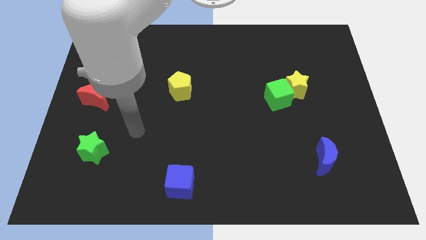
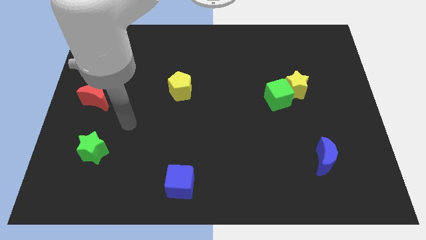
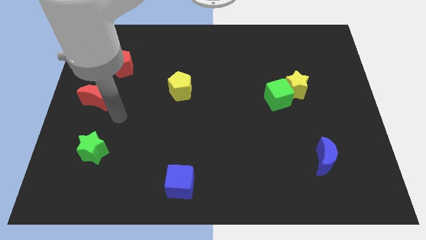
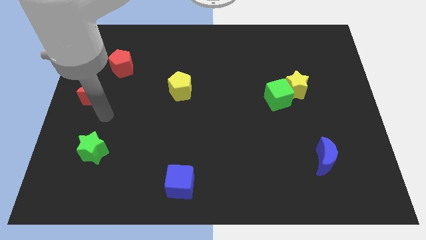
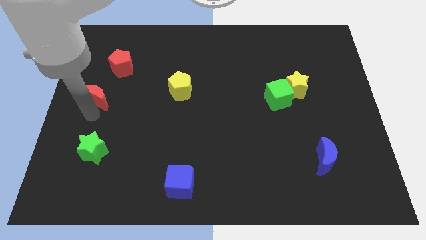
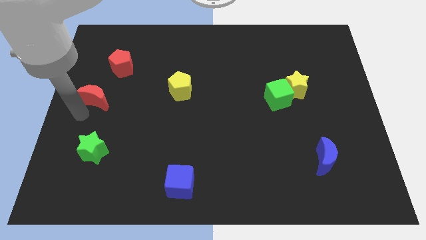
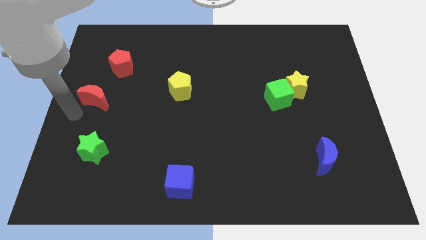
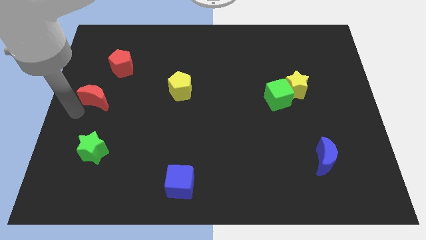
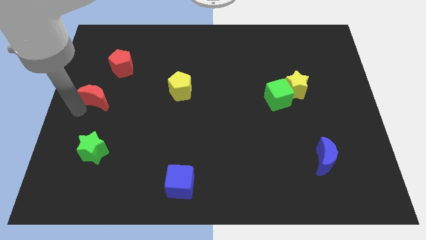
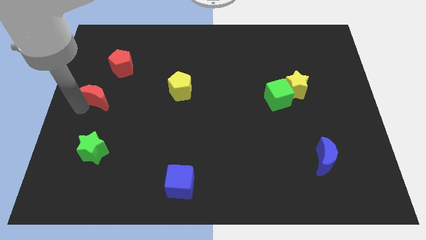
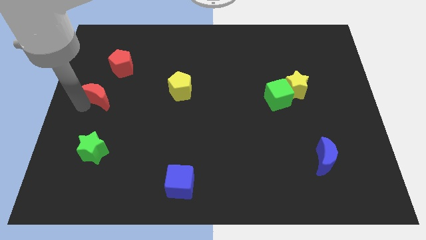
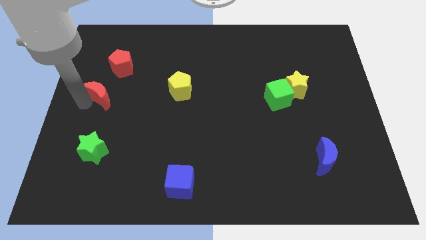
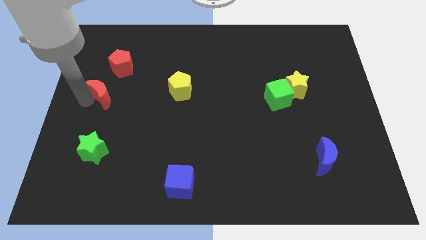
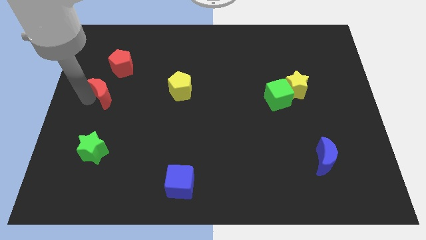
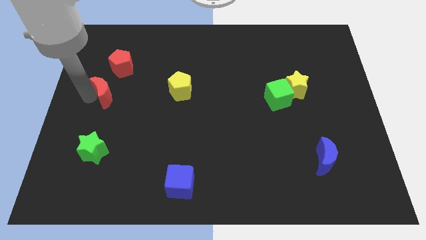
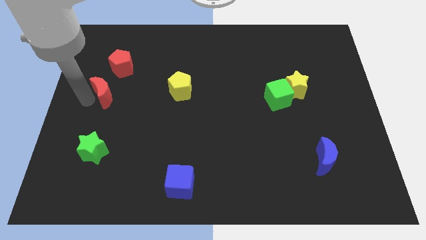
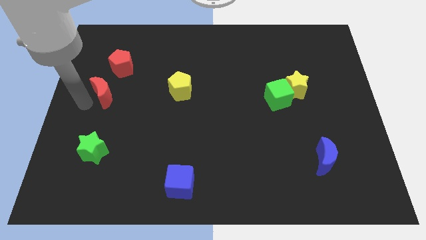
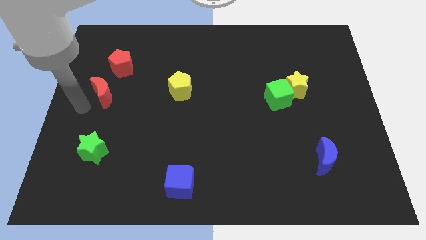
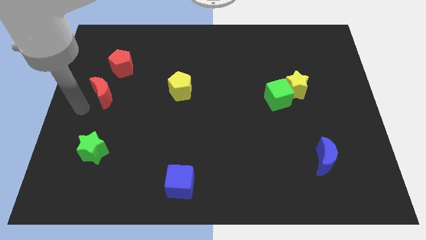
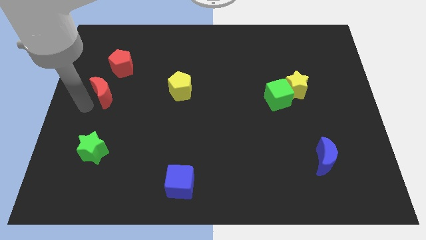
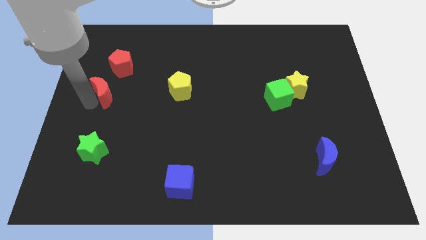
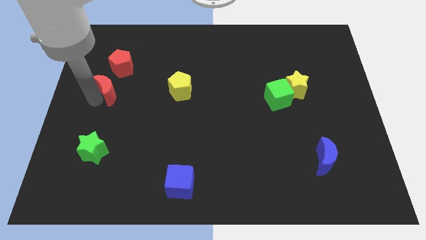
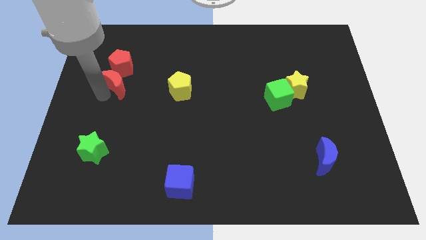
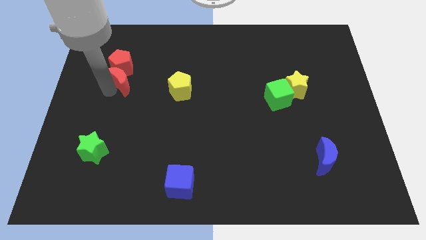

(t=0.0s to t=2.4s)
slightly slide the red moon upwards and right

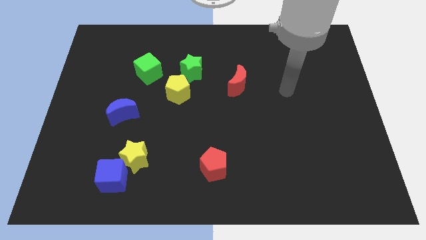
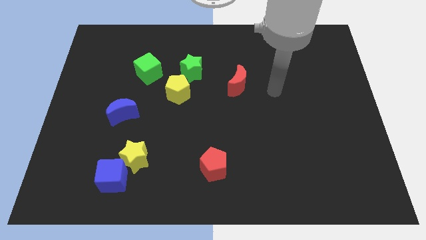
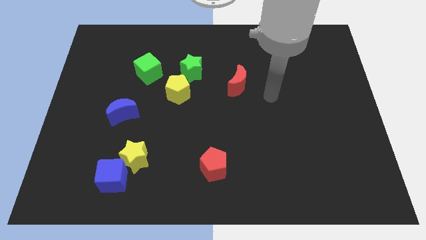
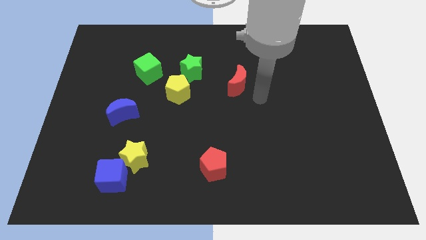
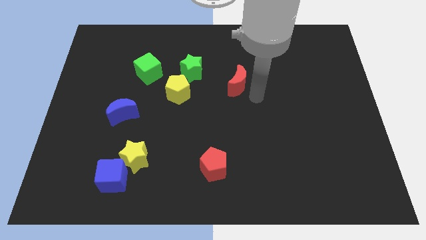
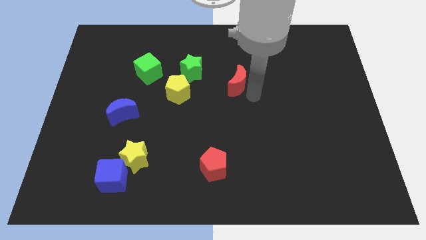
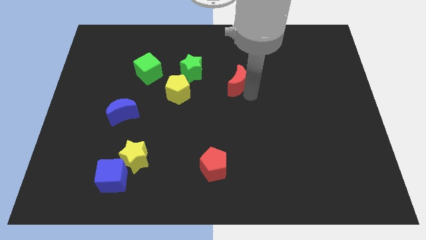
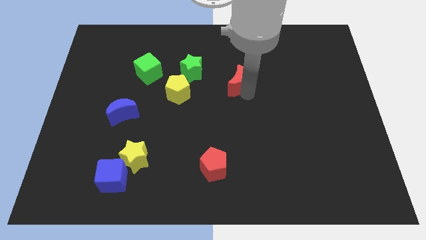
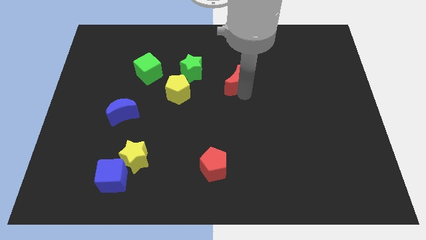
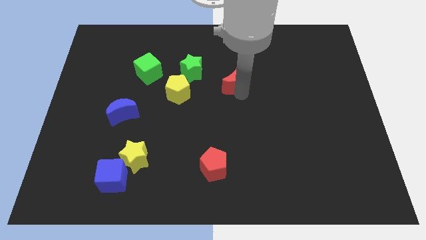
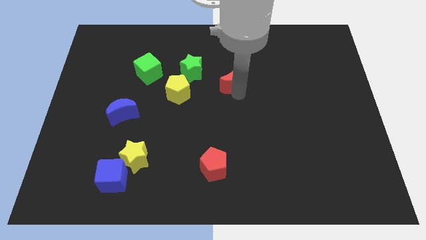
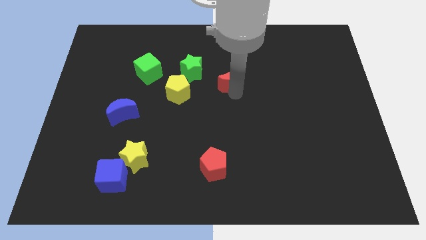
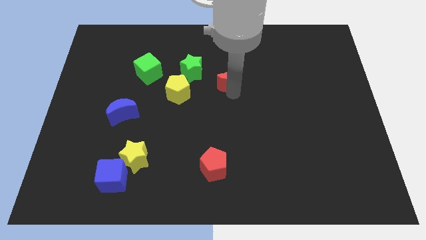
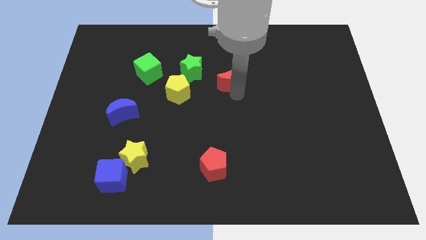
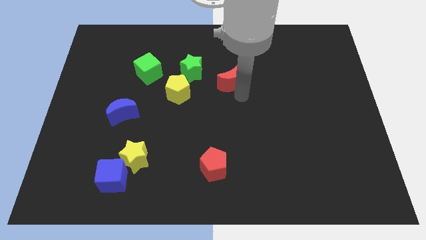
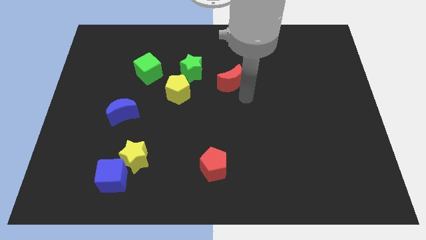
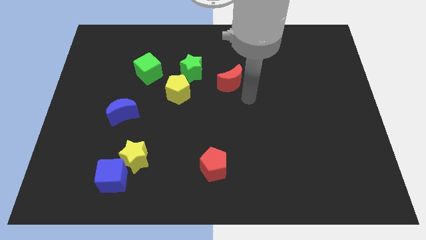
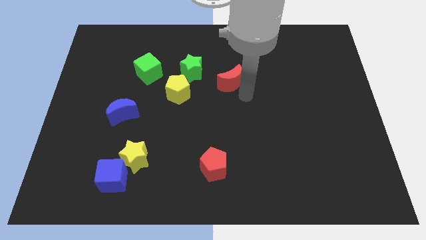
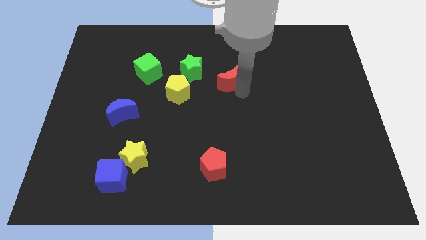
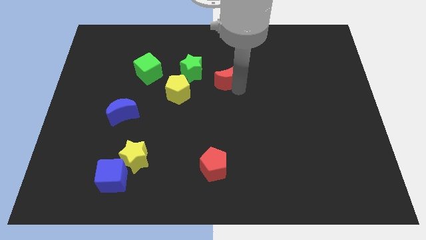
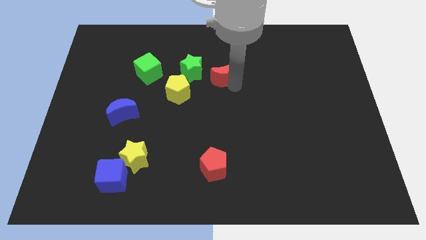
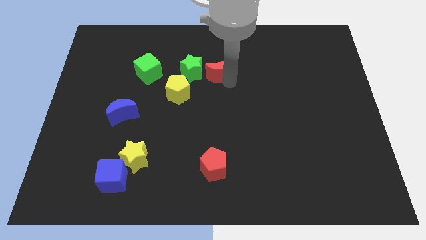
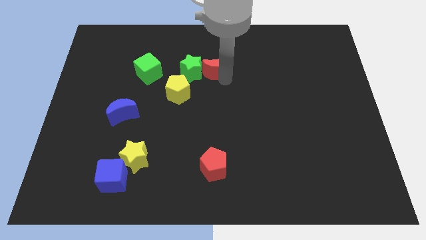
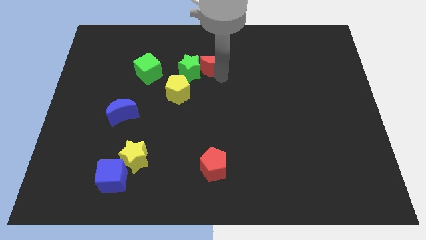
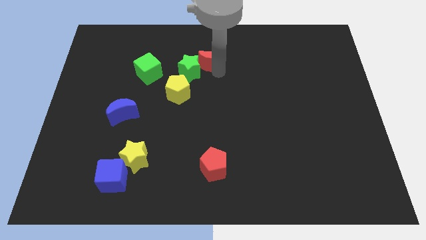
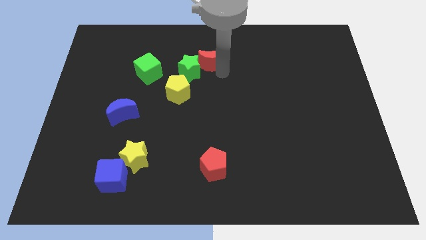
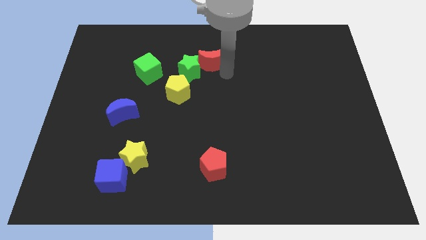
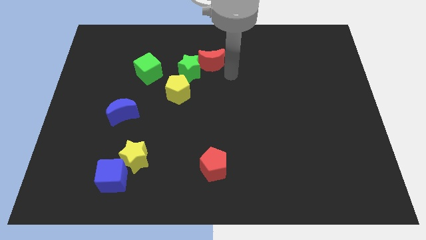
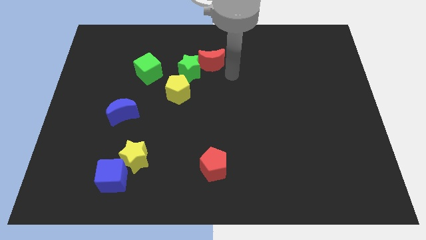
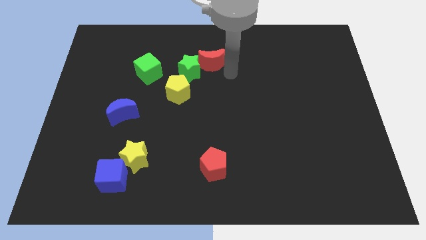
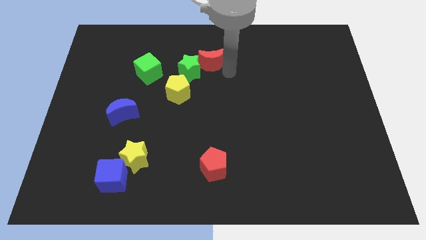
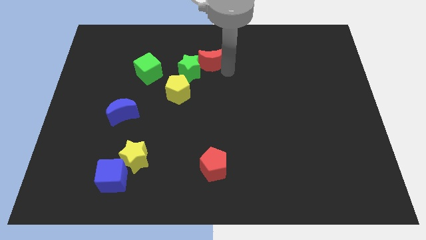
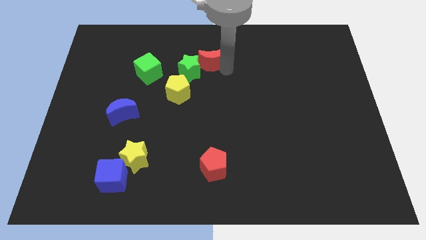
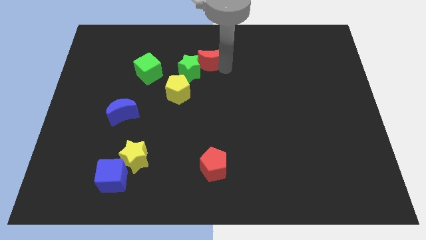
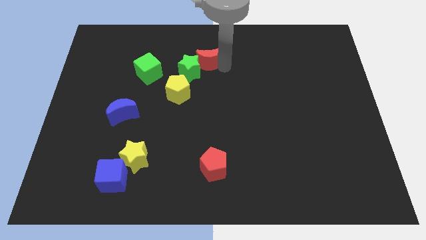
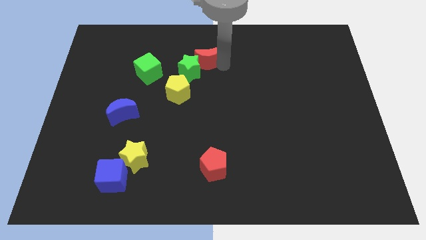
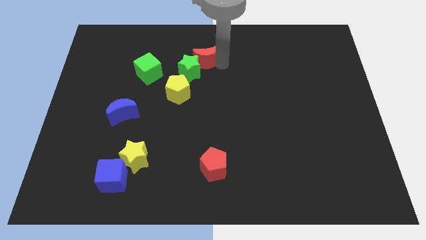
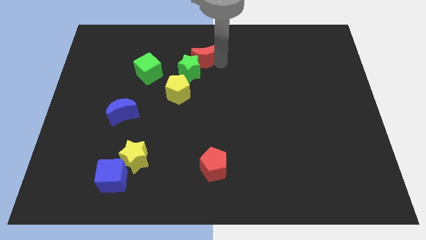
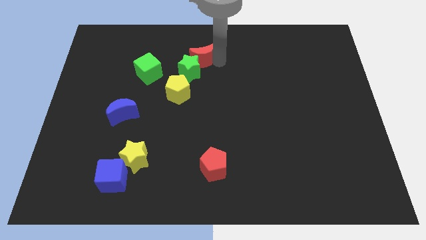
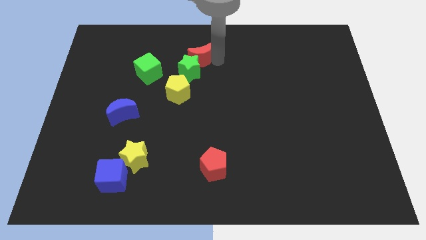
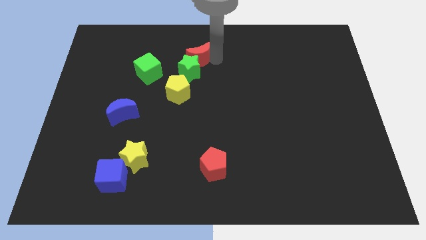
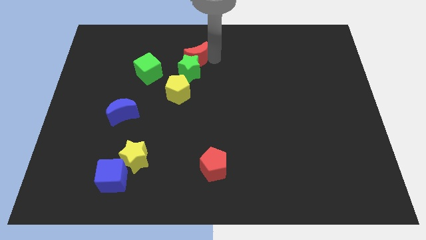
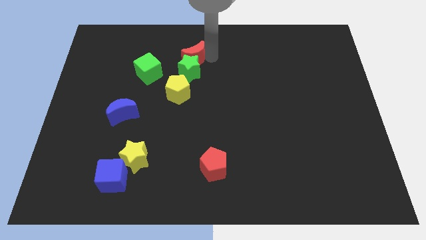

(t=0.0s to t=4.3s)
push the red moon slightly to the left

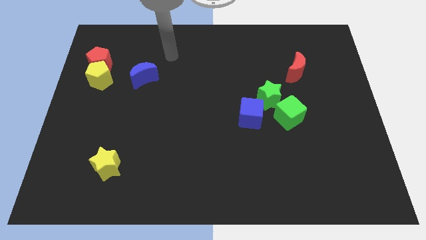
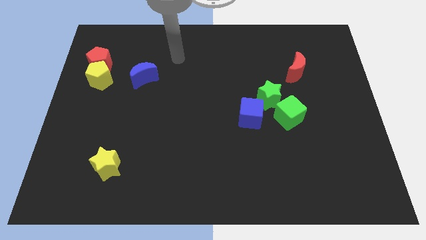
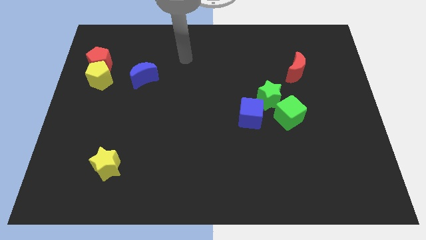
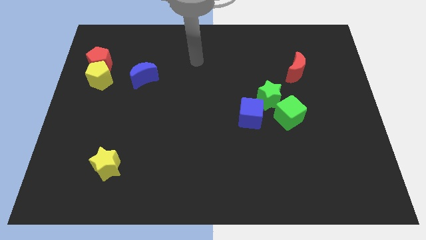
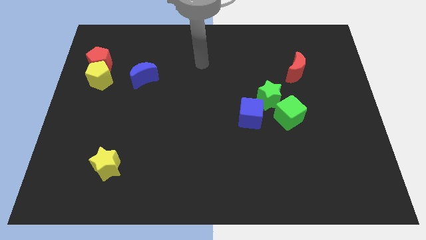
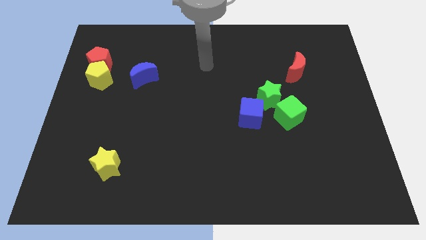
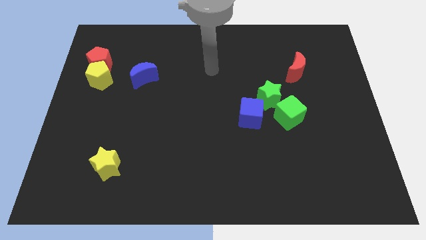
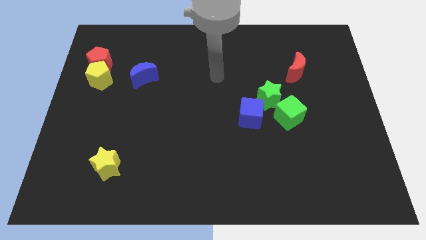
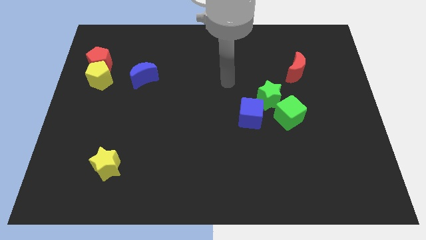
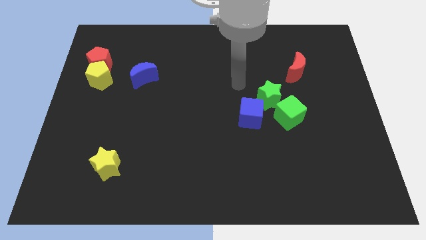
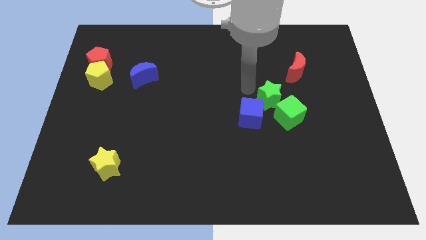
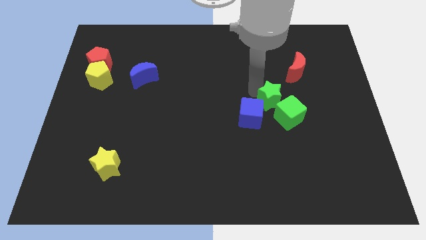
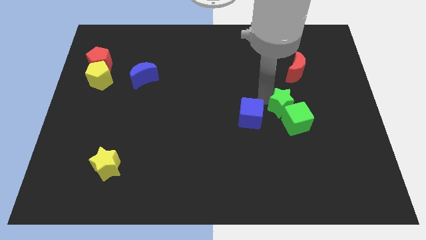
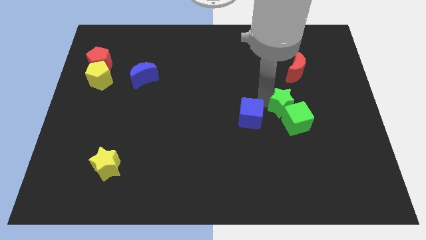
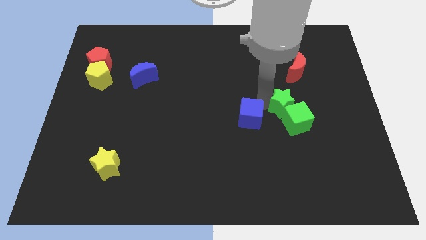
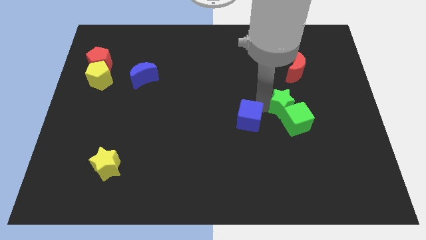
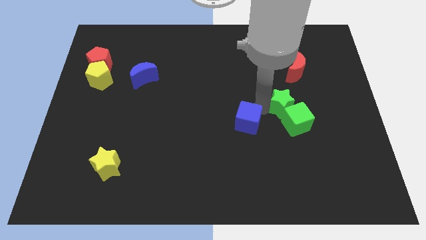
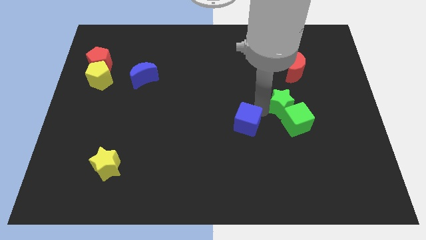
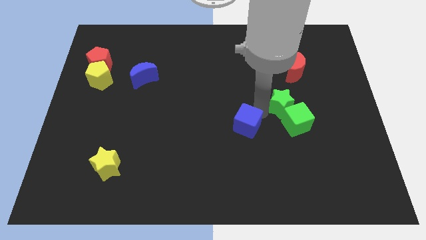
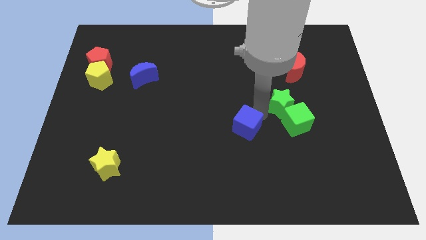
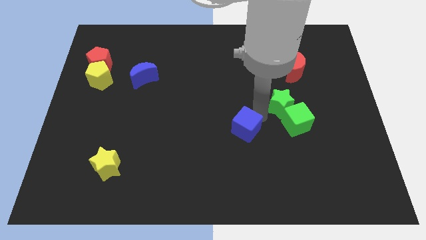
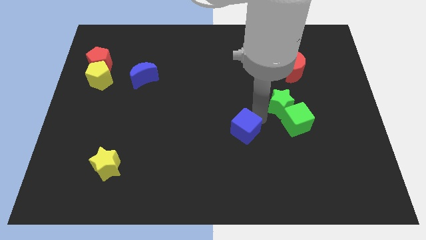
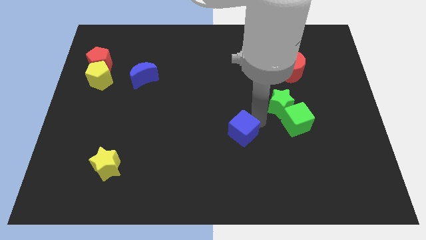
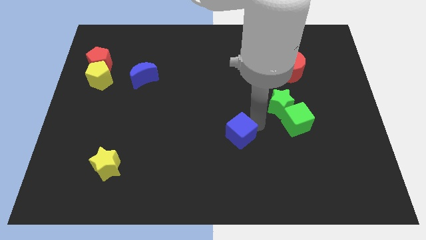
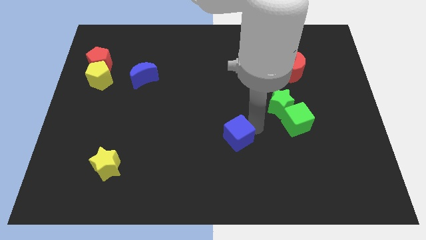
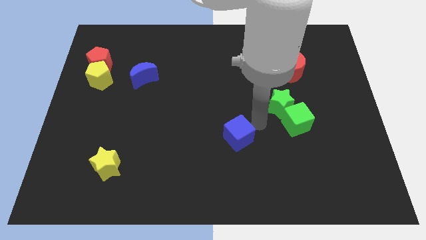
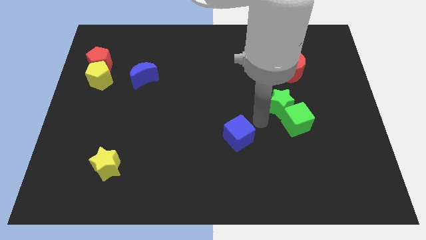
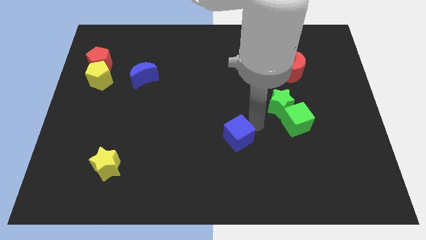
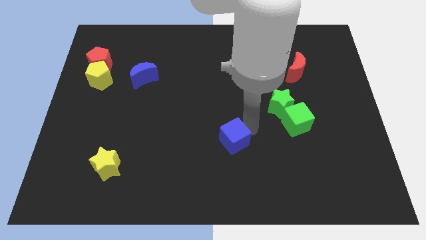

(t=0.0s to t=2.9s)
slide the blue cube downwards and then left somewhat
